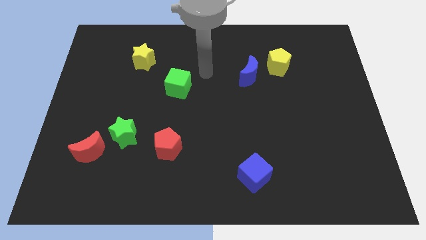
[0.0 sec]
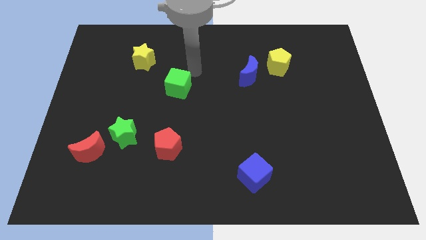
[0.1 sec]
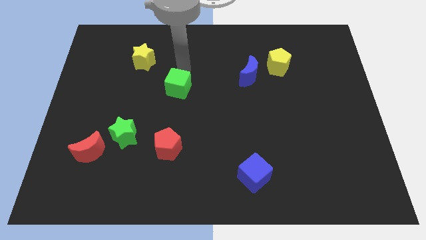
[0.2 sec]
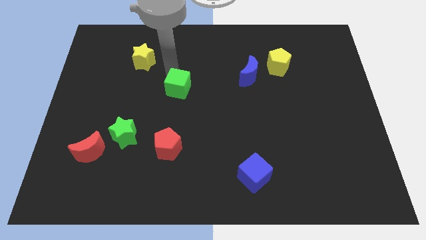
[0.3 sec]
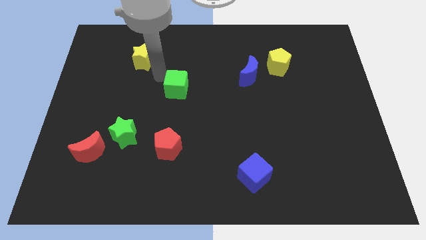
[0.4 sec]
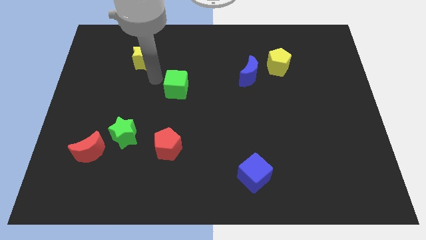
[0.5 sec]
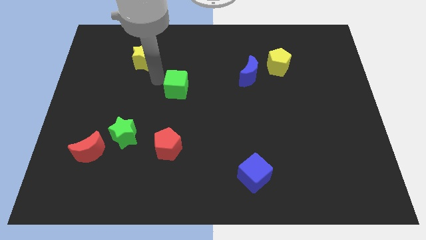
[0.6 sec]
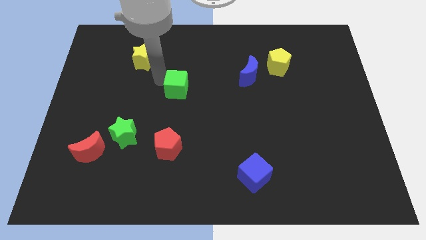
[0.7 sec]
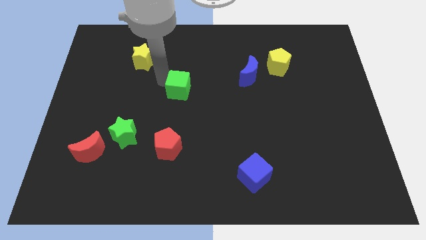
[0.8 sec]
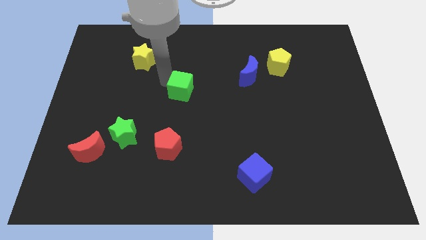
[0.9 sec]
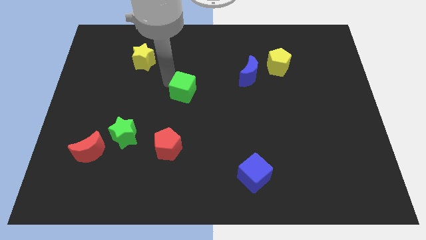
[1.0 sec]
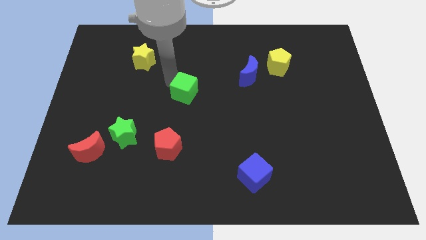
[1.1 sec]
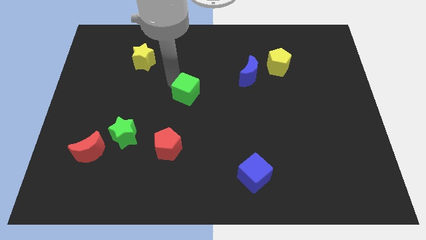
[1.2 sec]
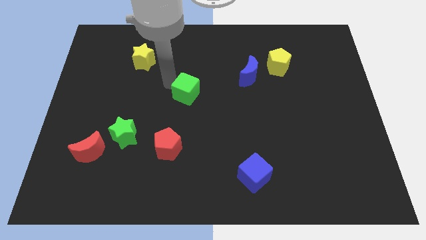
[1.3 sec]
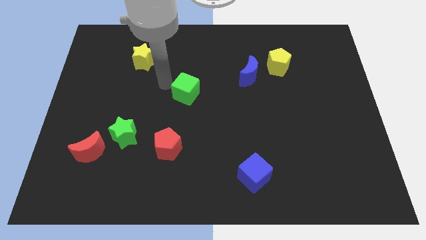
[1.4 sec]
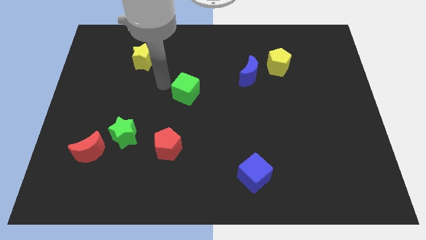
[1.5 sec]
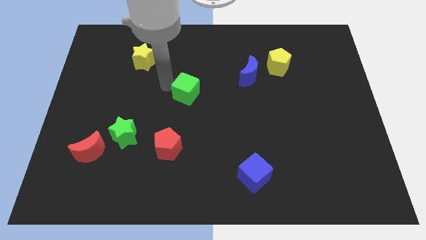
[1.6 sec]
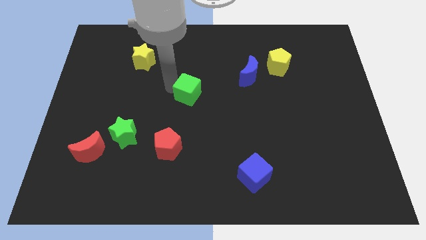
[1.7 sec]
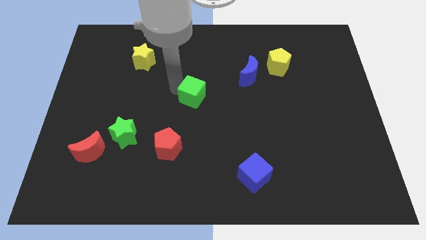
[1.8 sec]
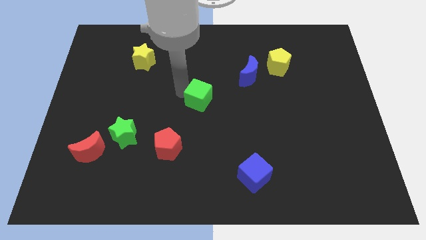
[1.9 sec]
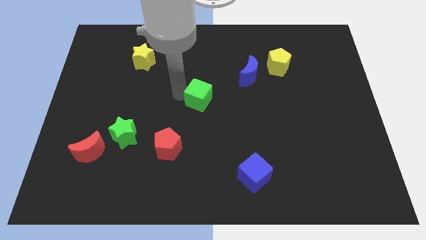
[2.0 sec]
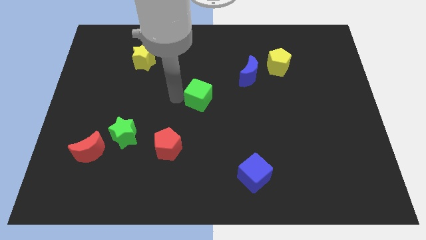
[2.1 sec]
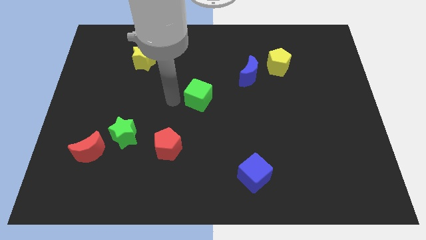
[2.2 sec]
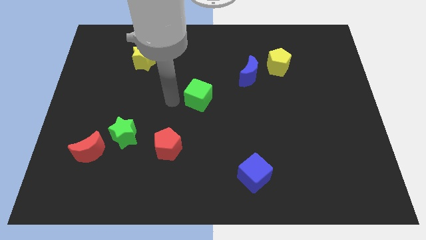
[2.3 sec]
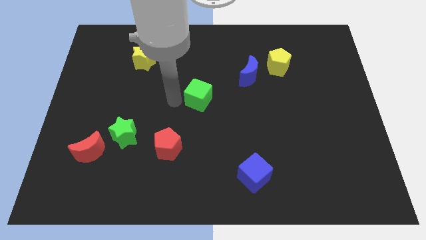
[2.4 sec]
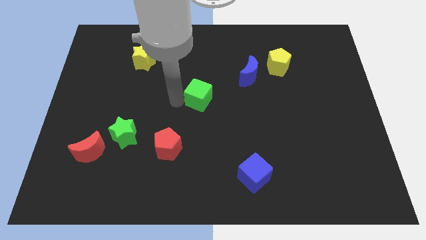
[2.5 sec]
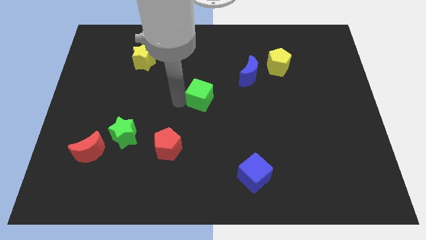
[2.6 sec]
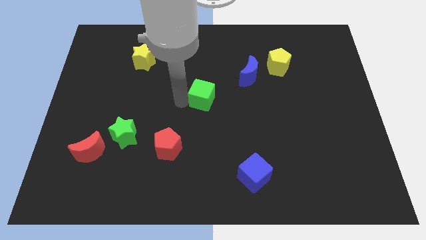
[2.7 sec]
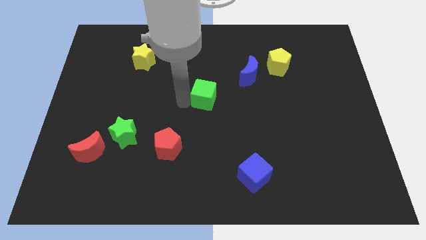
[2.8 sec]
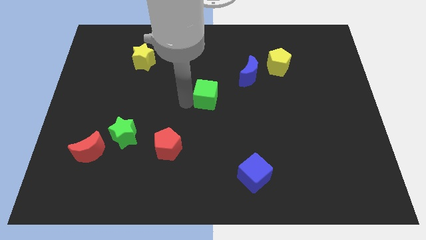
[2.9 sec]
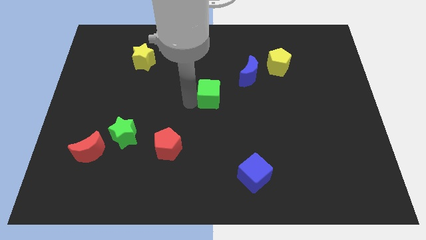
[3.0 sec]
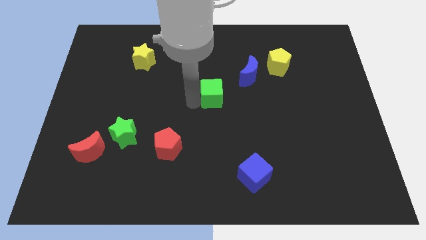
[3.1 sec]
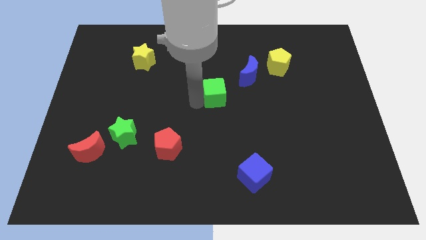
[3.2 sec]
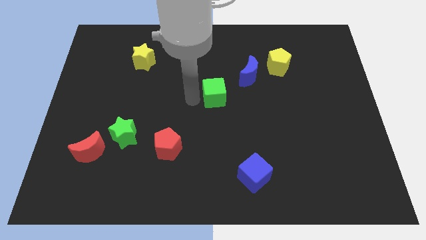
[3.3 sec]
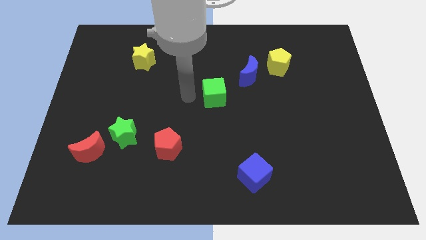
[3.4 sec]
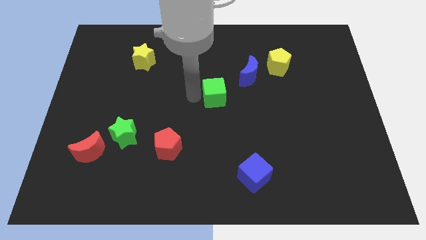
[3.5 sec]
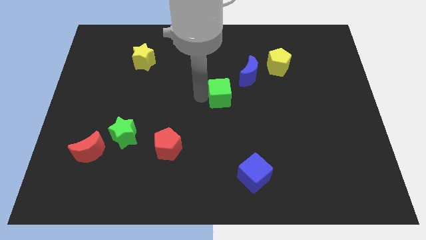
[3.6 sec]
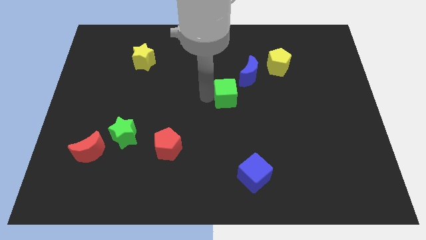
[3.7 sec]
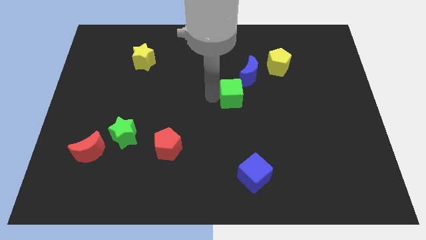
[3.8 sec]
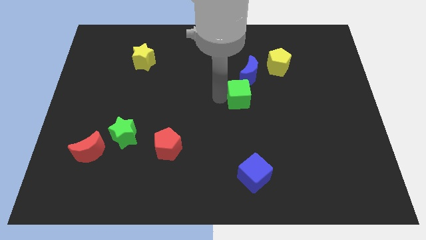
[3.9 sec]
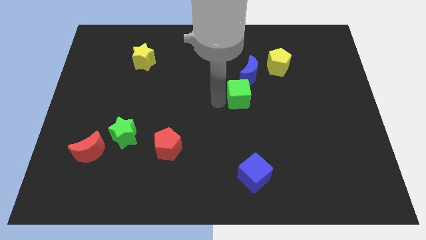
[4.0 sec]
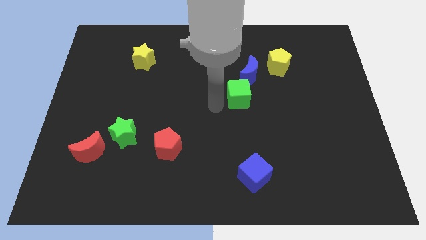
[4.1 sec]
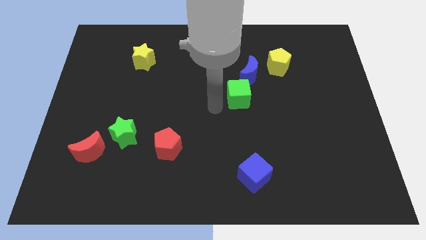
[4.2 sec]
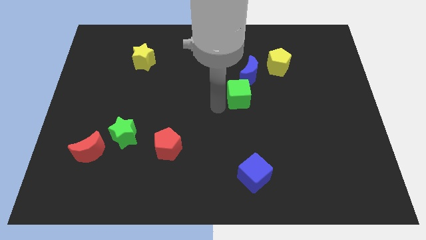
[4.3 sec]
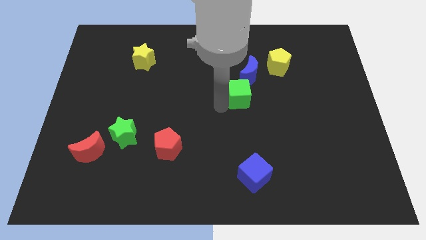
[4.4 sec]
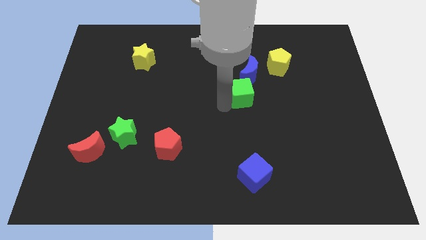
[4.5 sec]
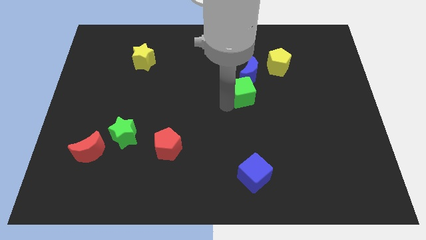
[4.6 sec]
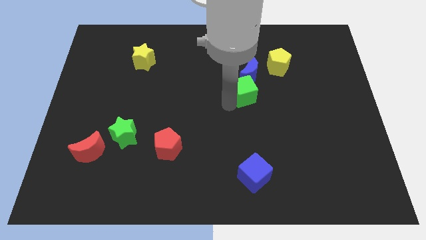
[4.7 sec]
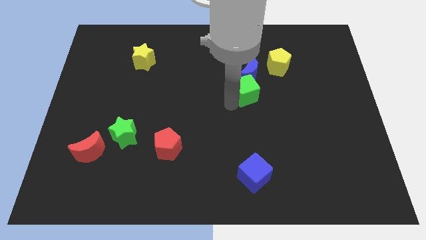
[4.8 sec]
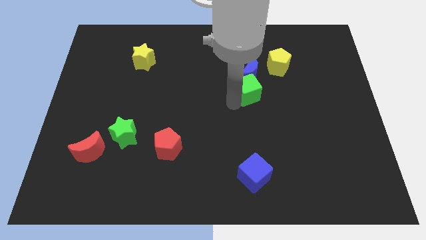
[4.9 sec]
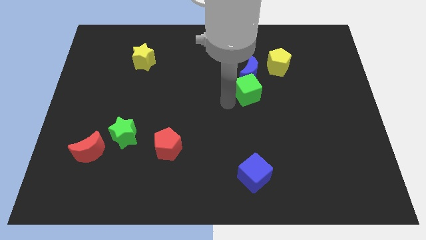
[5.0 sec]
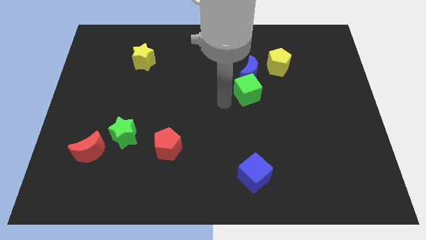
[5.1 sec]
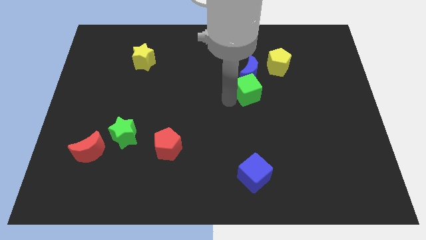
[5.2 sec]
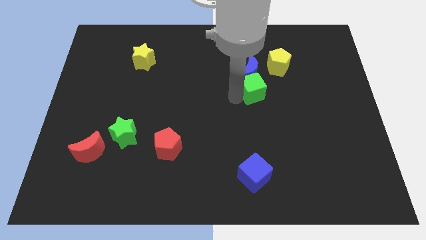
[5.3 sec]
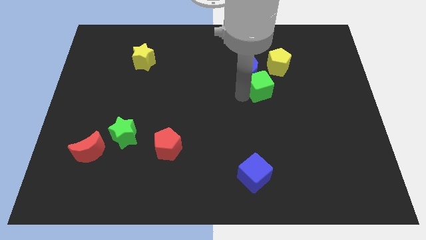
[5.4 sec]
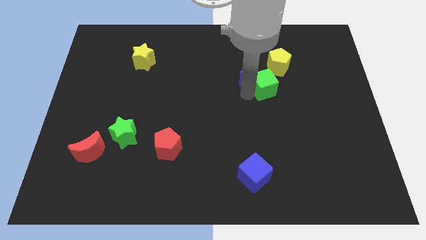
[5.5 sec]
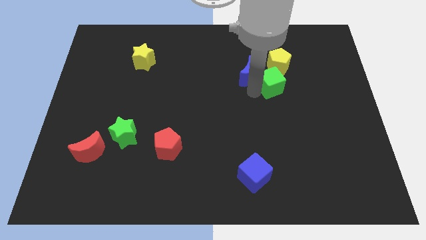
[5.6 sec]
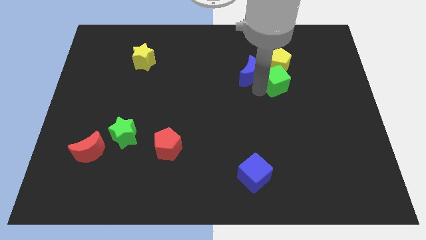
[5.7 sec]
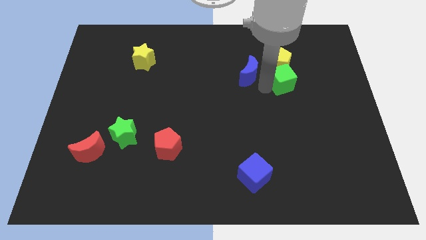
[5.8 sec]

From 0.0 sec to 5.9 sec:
move the green cube to the bottom right of the yellow pentagon

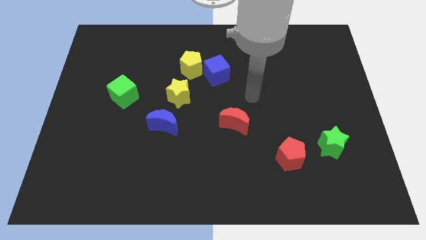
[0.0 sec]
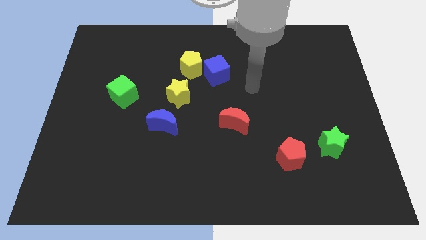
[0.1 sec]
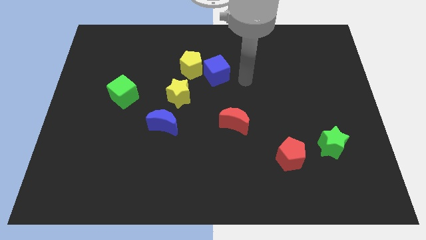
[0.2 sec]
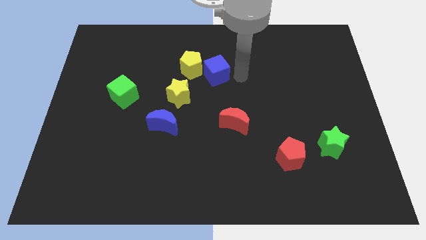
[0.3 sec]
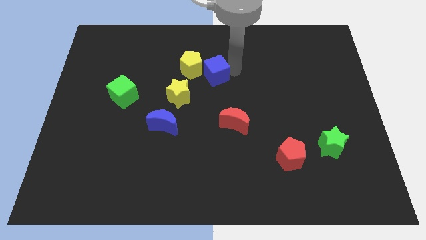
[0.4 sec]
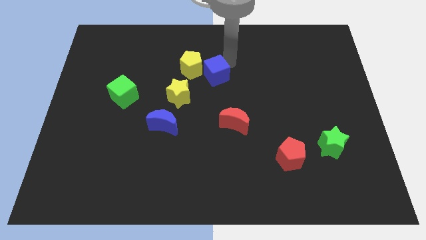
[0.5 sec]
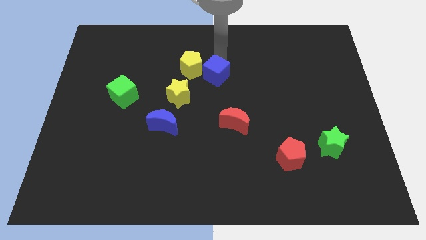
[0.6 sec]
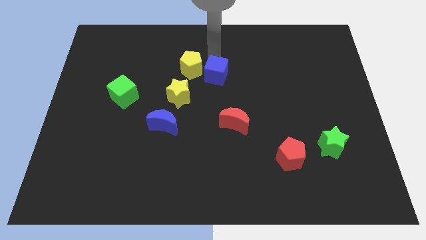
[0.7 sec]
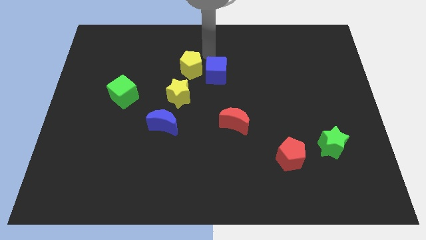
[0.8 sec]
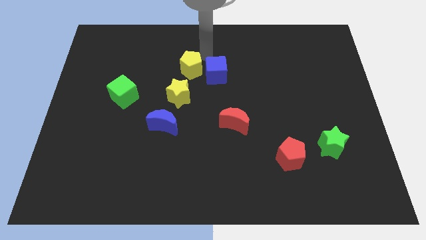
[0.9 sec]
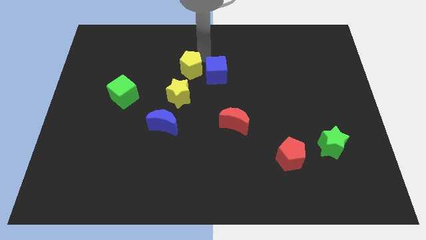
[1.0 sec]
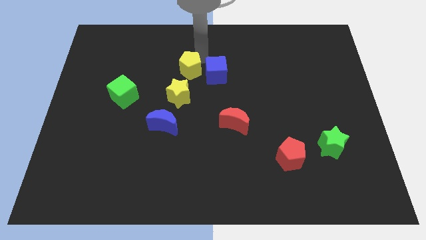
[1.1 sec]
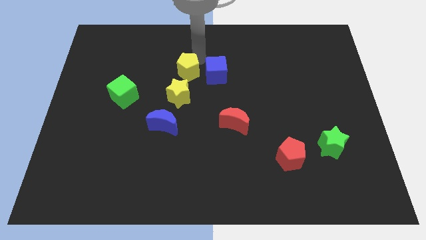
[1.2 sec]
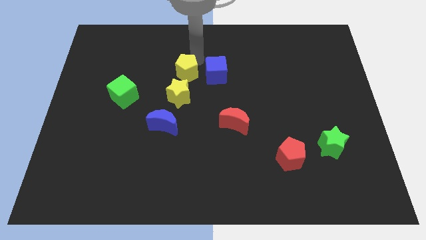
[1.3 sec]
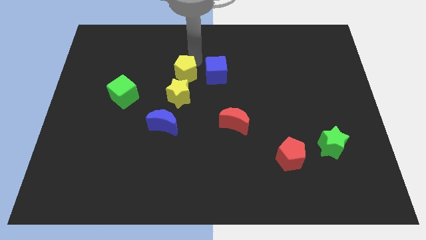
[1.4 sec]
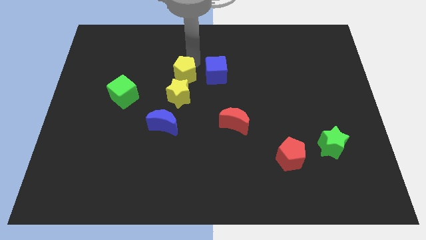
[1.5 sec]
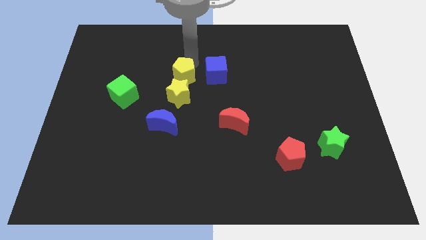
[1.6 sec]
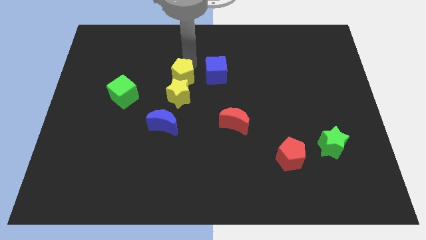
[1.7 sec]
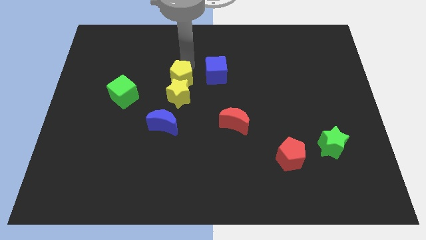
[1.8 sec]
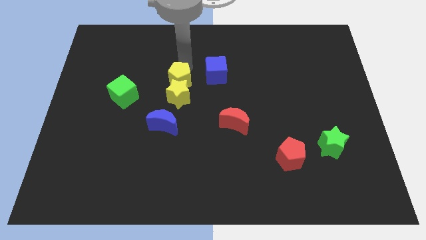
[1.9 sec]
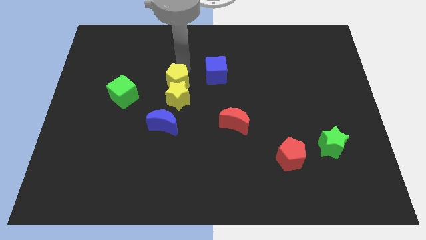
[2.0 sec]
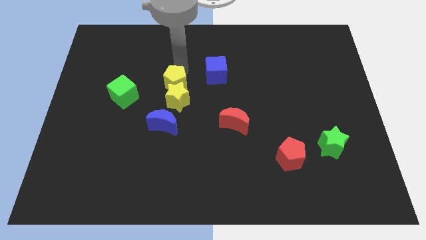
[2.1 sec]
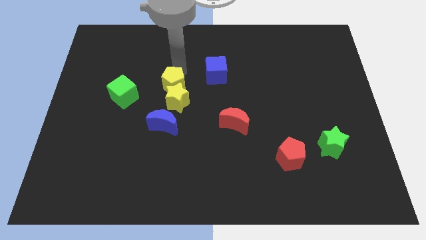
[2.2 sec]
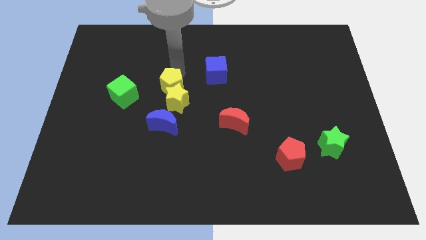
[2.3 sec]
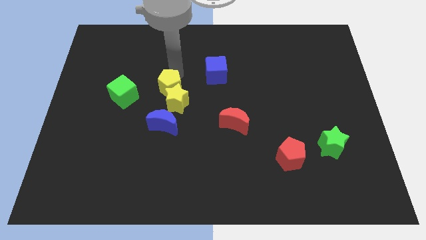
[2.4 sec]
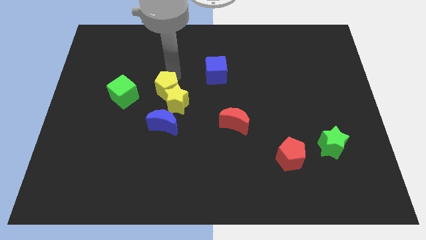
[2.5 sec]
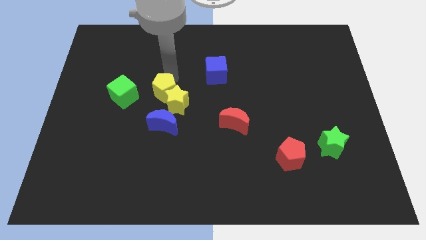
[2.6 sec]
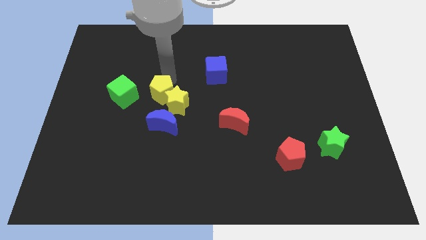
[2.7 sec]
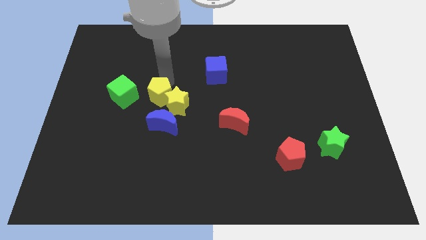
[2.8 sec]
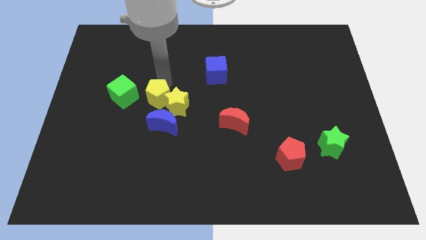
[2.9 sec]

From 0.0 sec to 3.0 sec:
put the yellow pentagon to the top left side of the blue moon
